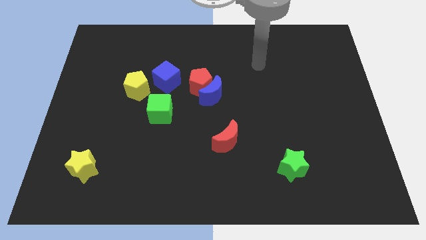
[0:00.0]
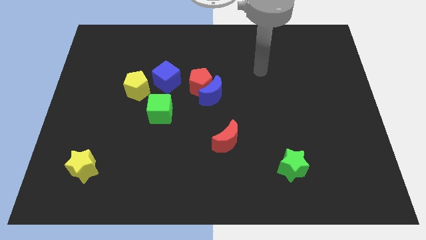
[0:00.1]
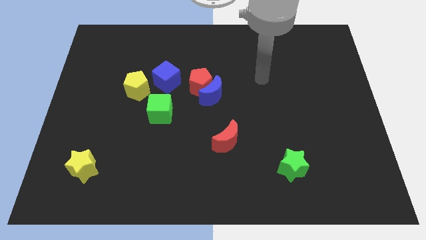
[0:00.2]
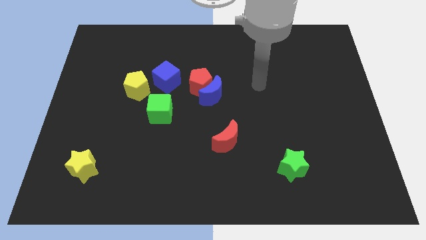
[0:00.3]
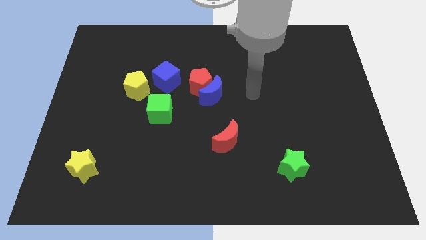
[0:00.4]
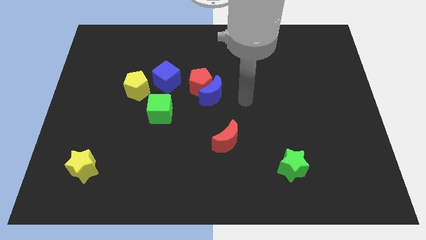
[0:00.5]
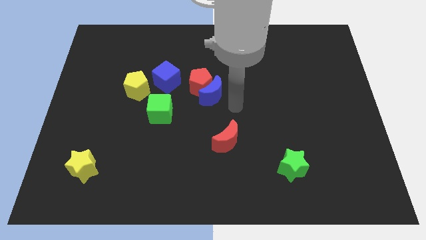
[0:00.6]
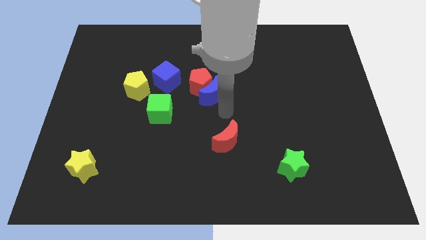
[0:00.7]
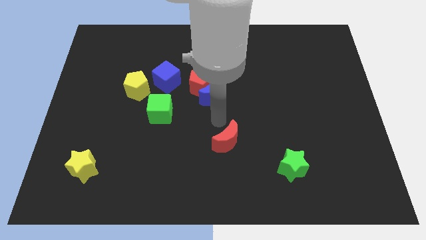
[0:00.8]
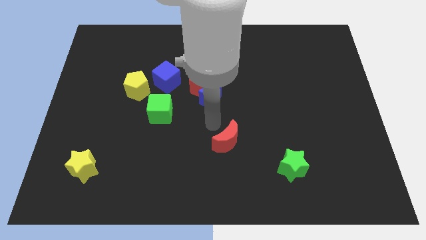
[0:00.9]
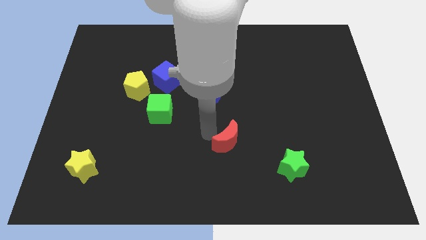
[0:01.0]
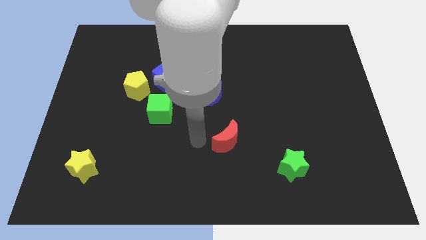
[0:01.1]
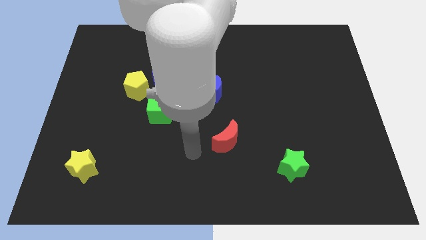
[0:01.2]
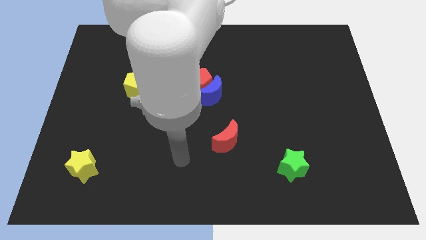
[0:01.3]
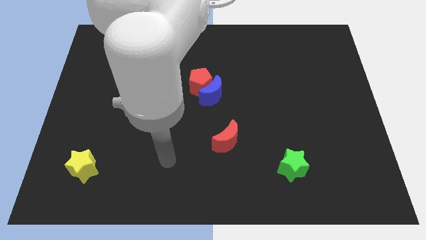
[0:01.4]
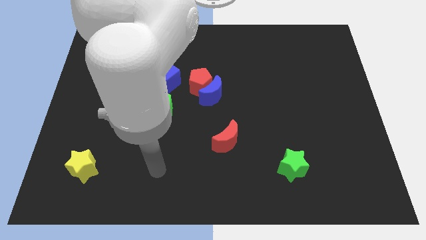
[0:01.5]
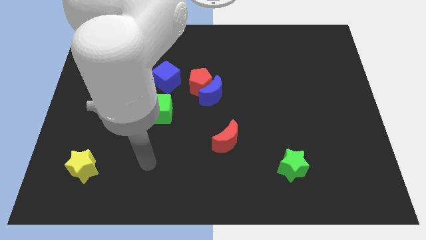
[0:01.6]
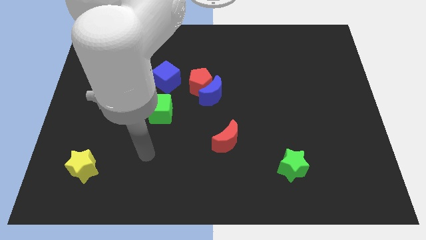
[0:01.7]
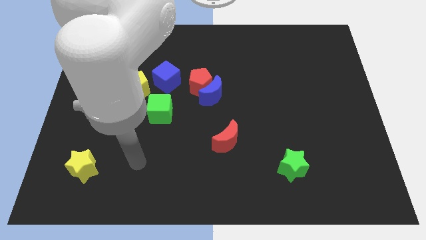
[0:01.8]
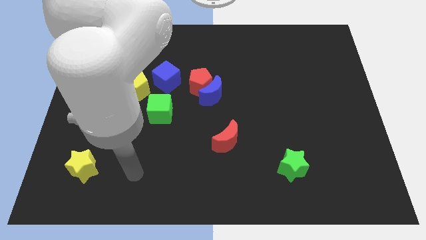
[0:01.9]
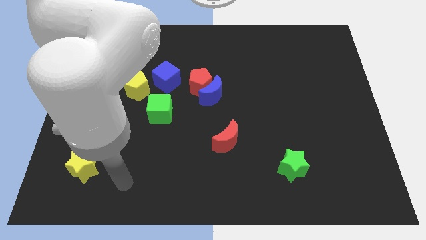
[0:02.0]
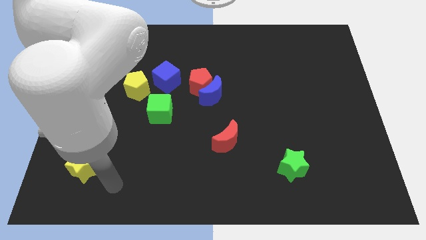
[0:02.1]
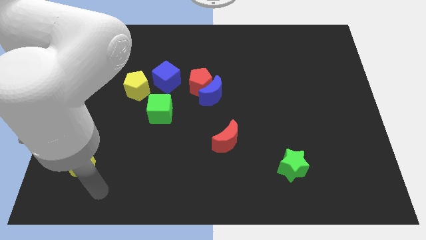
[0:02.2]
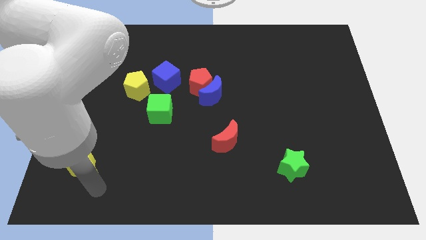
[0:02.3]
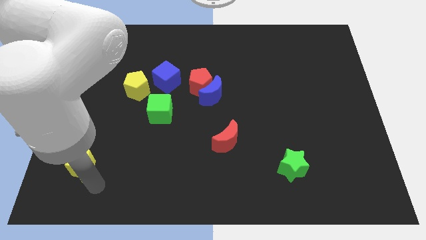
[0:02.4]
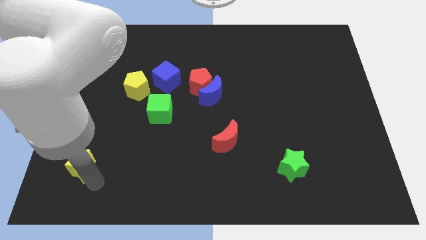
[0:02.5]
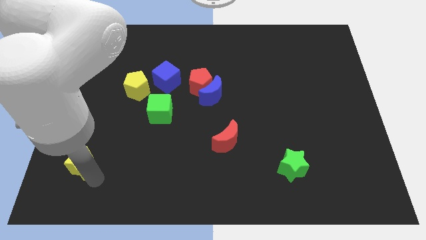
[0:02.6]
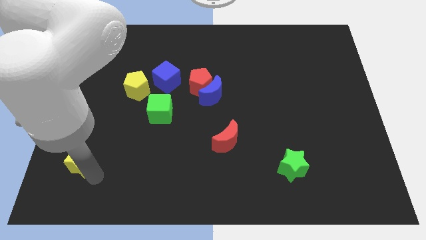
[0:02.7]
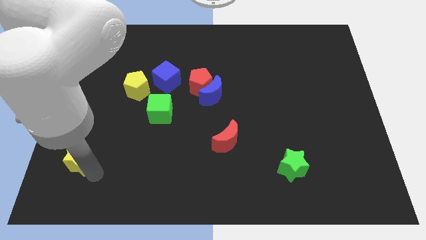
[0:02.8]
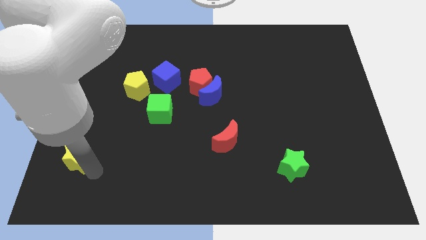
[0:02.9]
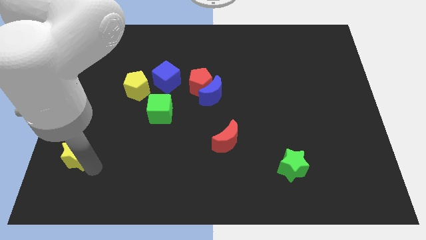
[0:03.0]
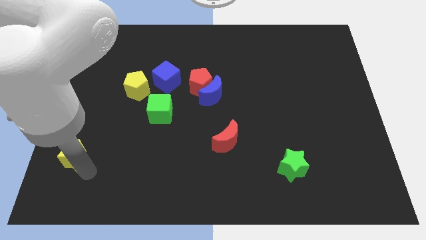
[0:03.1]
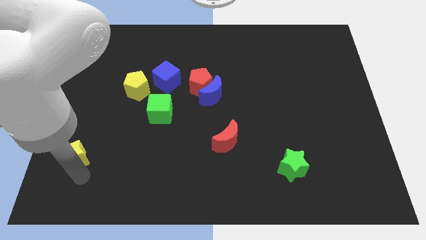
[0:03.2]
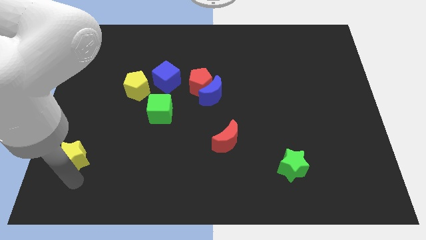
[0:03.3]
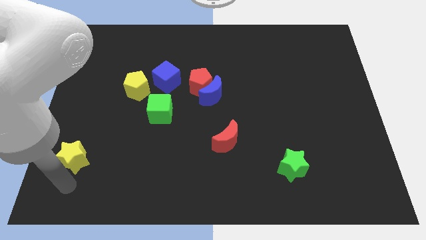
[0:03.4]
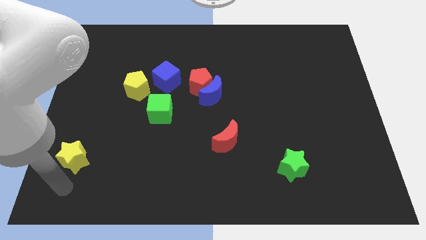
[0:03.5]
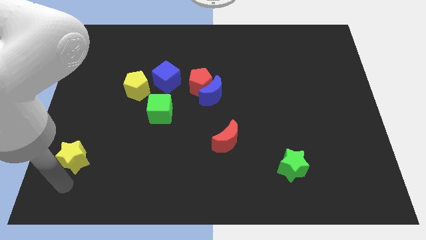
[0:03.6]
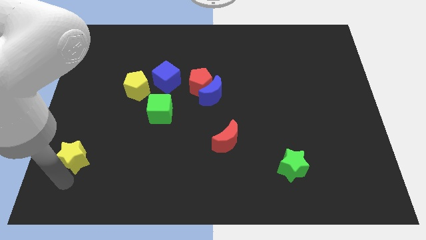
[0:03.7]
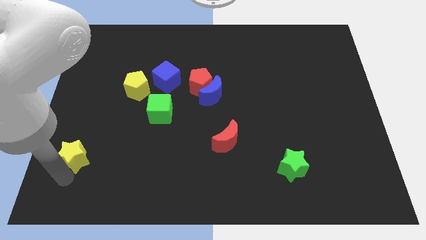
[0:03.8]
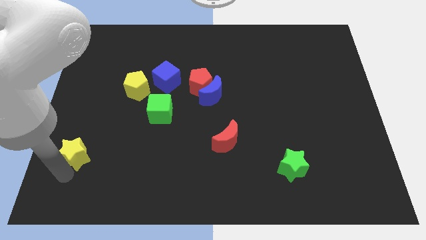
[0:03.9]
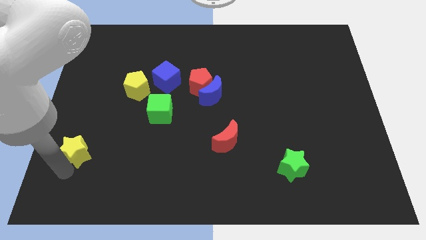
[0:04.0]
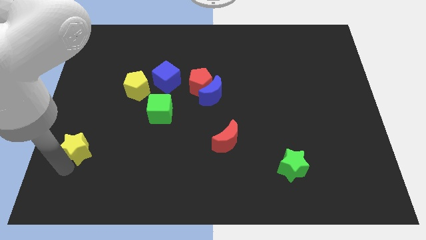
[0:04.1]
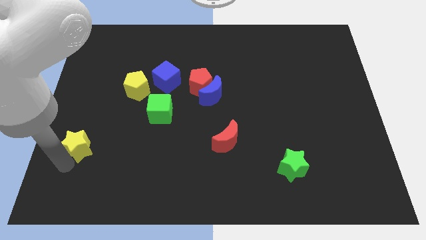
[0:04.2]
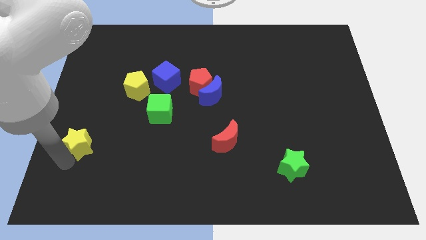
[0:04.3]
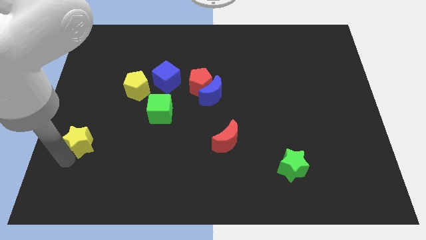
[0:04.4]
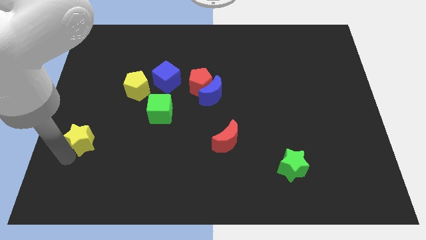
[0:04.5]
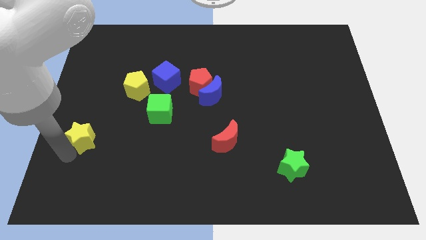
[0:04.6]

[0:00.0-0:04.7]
slide the yellow star upwards slightly

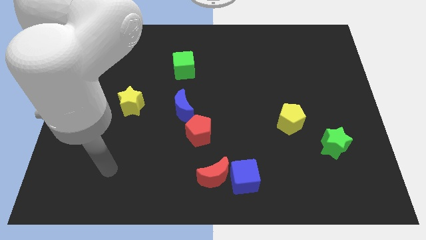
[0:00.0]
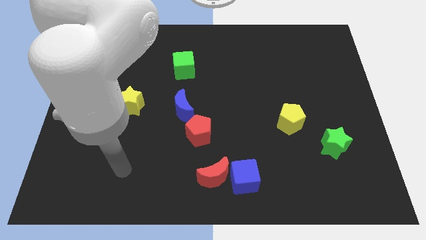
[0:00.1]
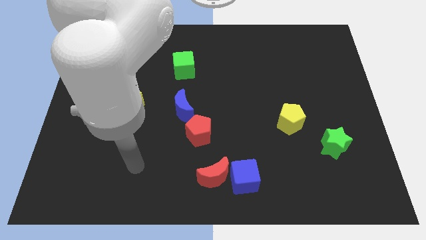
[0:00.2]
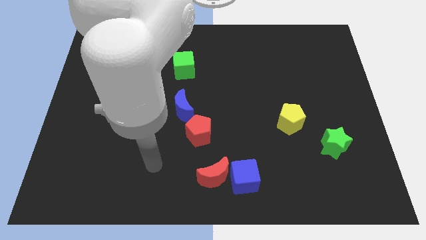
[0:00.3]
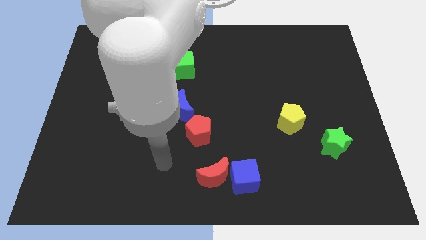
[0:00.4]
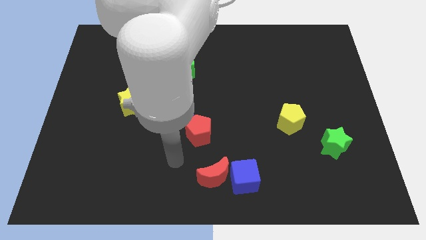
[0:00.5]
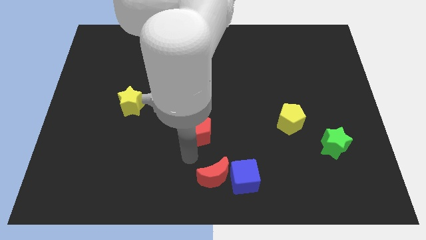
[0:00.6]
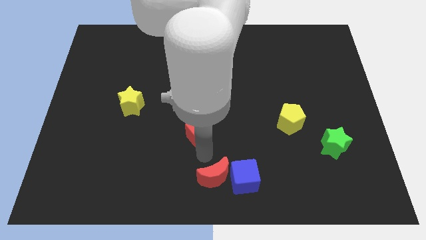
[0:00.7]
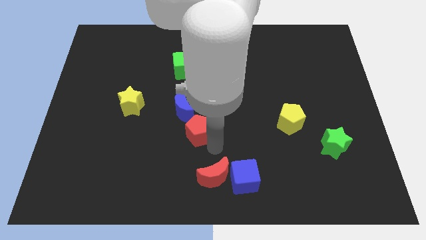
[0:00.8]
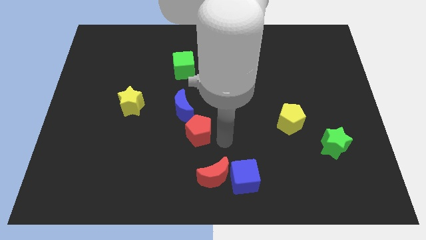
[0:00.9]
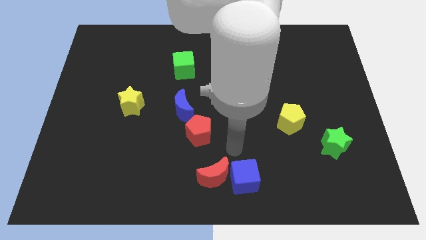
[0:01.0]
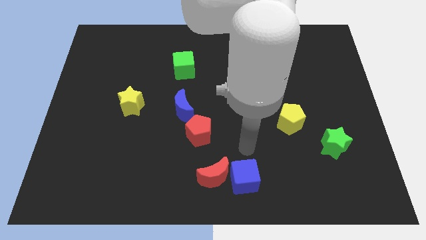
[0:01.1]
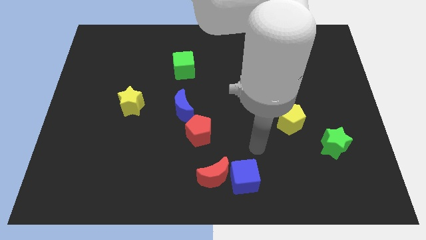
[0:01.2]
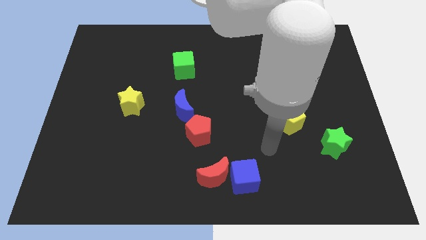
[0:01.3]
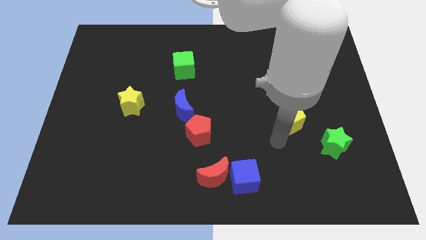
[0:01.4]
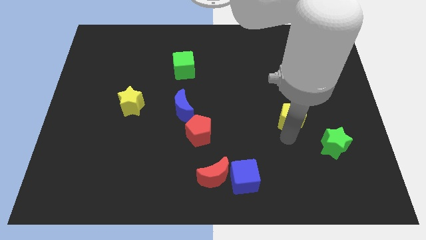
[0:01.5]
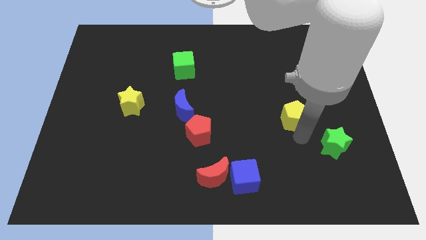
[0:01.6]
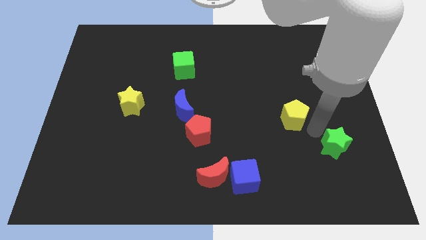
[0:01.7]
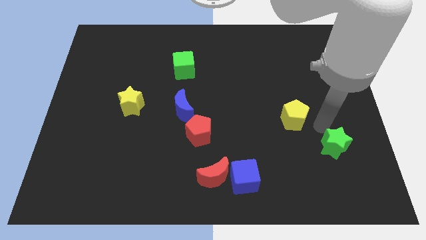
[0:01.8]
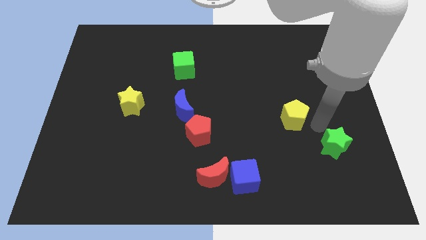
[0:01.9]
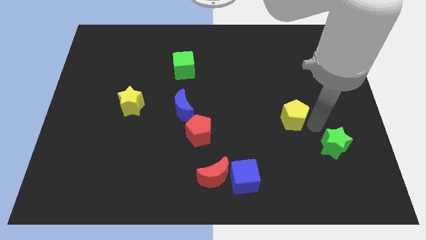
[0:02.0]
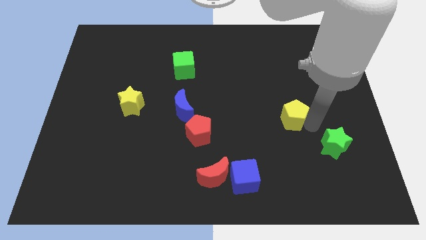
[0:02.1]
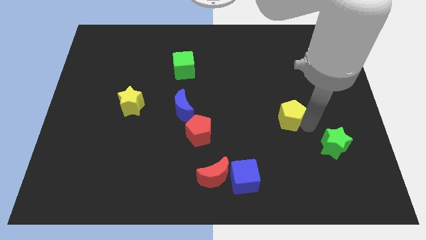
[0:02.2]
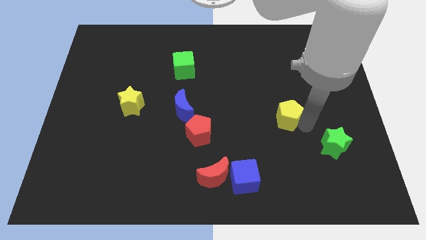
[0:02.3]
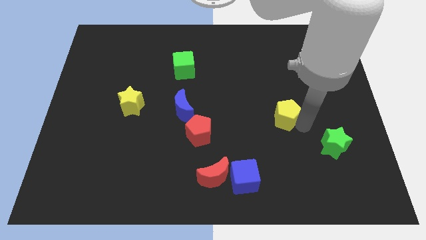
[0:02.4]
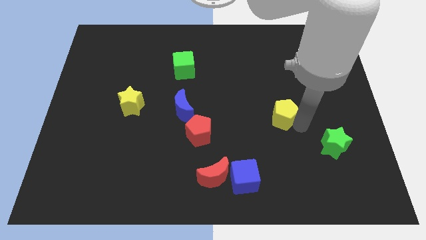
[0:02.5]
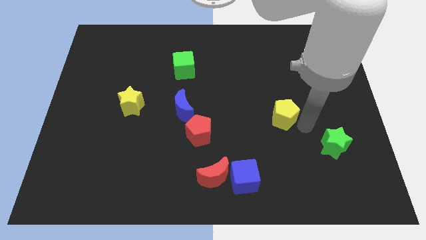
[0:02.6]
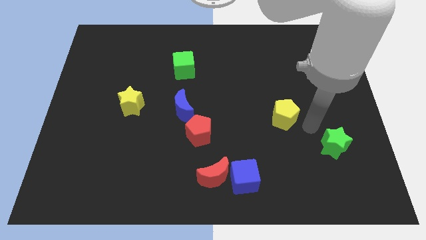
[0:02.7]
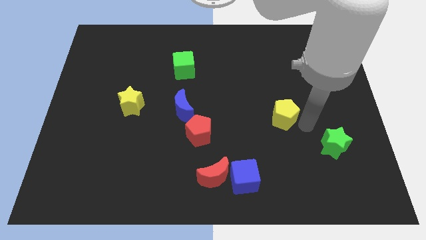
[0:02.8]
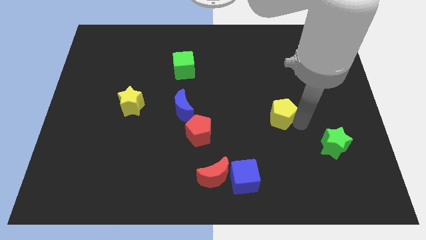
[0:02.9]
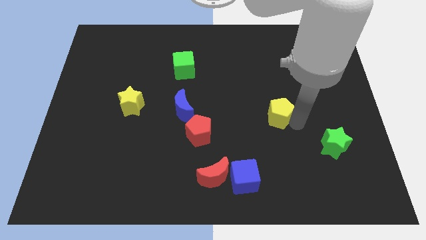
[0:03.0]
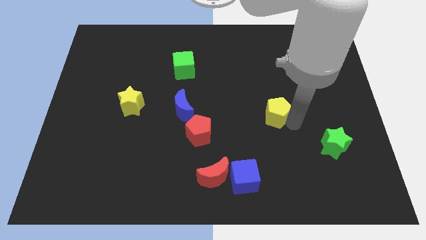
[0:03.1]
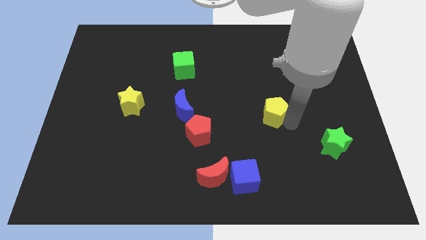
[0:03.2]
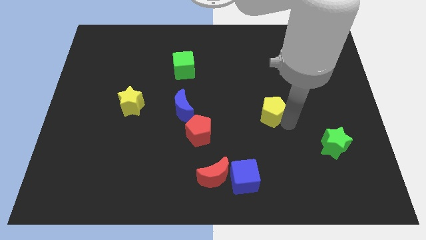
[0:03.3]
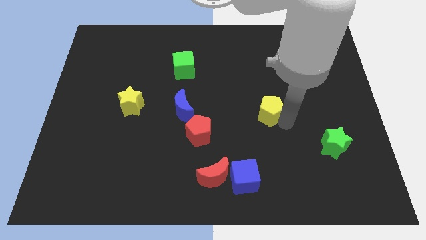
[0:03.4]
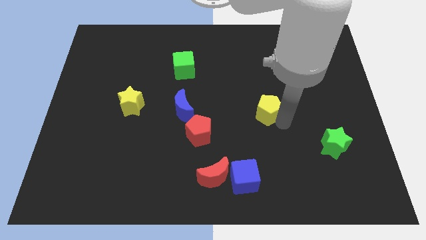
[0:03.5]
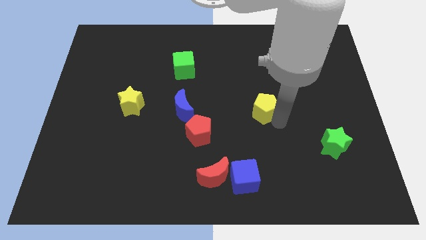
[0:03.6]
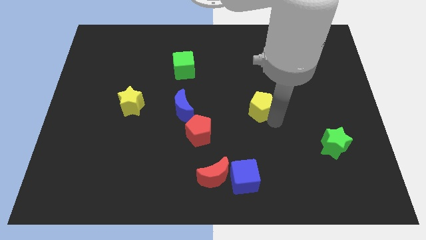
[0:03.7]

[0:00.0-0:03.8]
move the yellow pentagon diagonally up and left a bit
